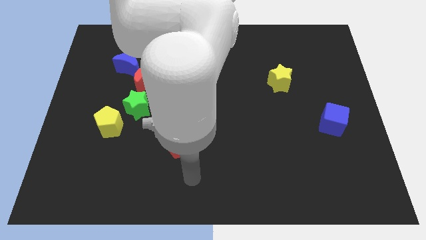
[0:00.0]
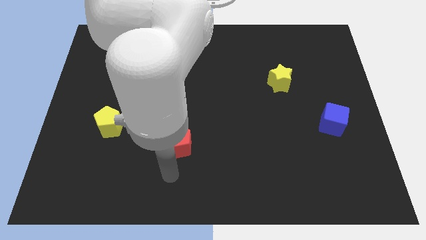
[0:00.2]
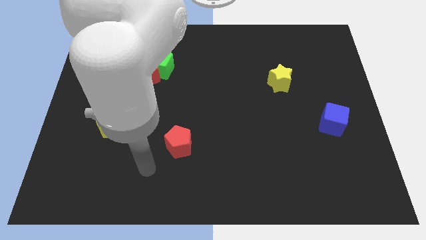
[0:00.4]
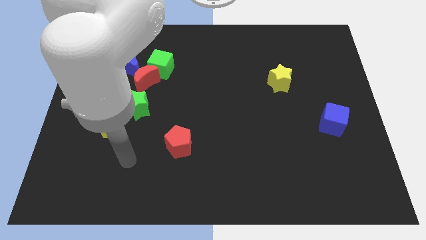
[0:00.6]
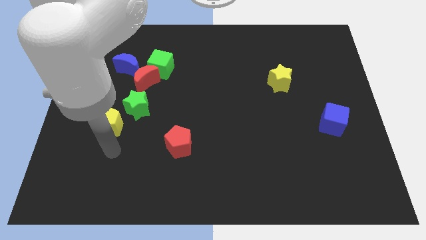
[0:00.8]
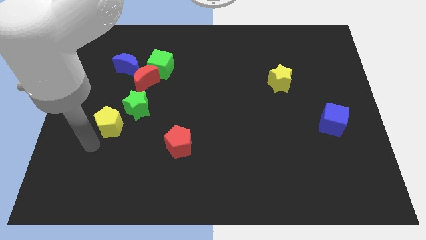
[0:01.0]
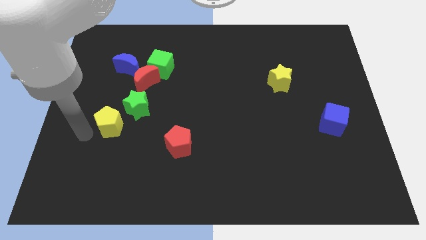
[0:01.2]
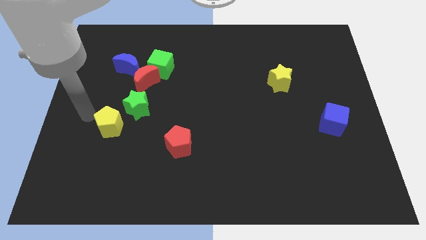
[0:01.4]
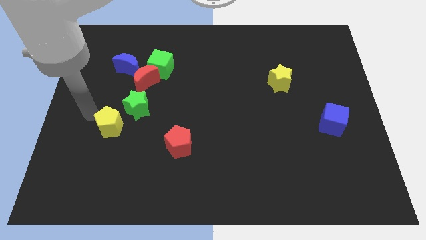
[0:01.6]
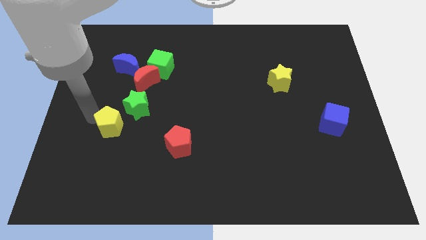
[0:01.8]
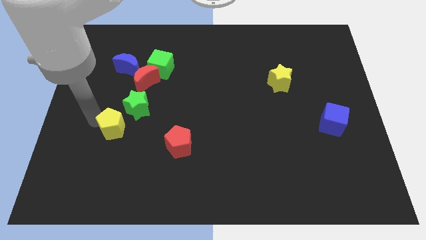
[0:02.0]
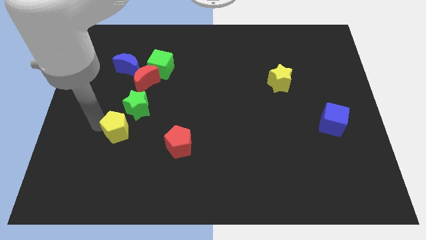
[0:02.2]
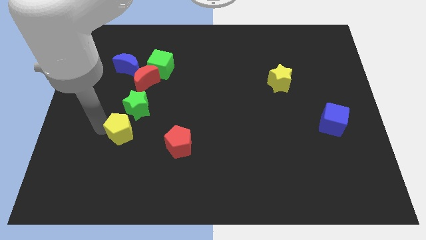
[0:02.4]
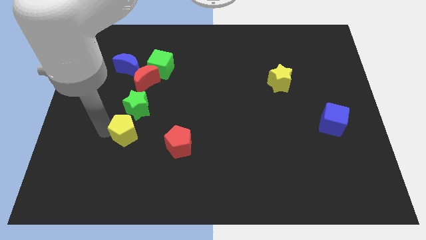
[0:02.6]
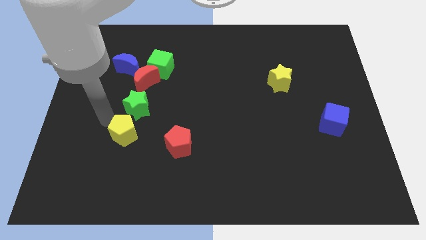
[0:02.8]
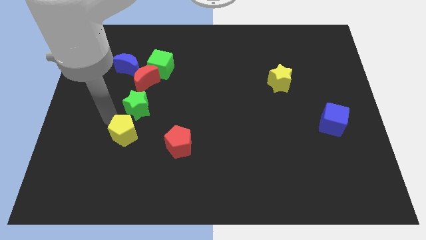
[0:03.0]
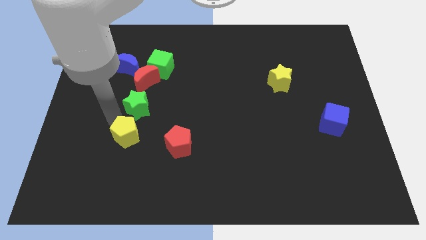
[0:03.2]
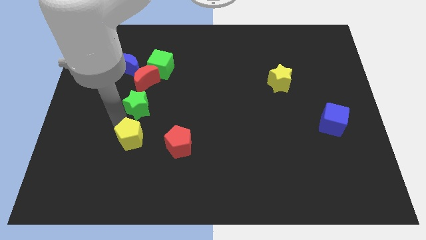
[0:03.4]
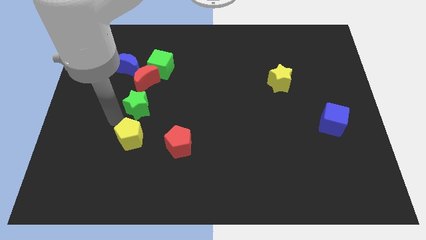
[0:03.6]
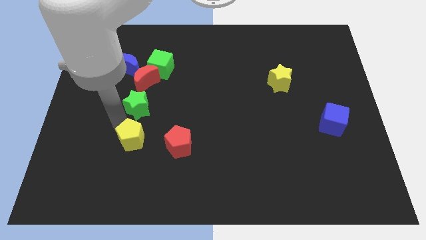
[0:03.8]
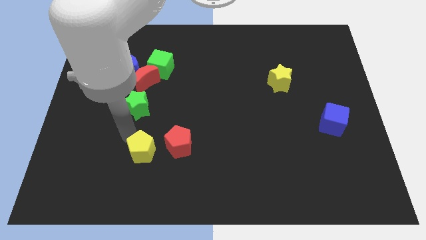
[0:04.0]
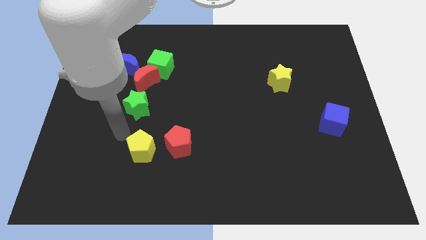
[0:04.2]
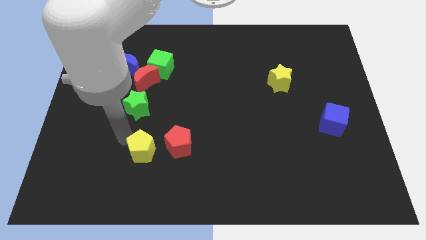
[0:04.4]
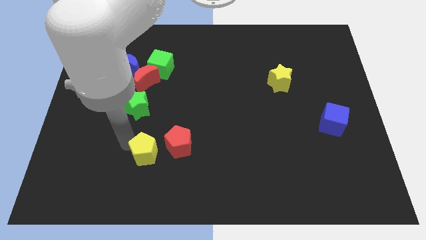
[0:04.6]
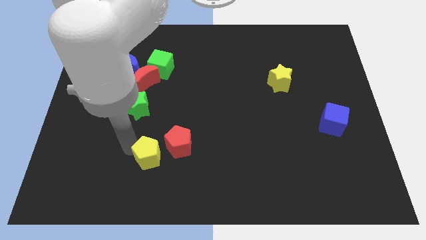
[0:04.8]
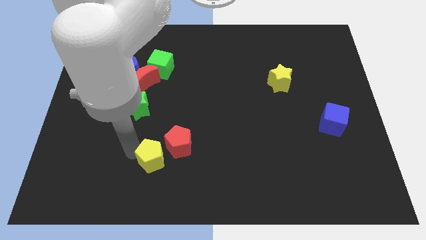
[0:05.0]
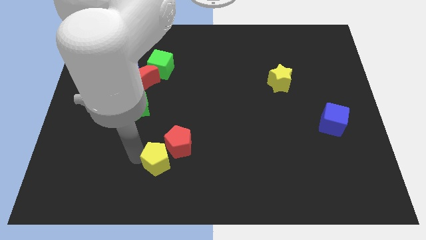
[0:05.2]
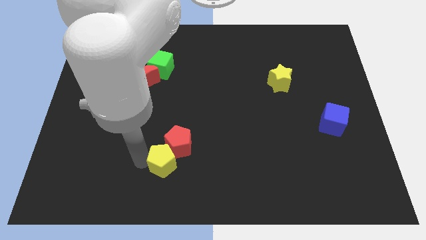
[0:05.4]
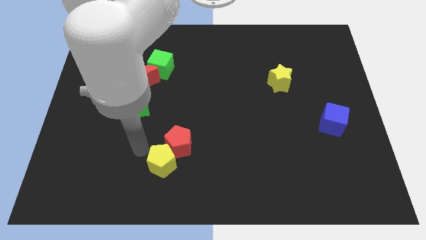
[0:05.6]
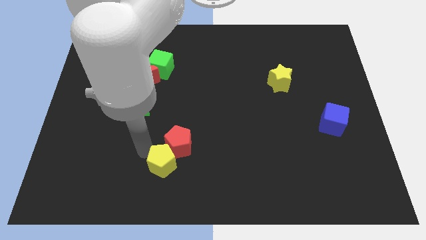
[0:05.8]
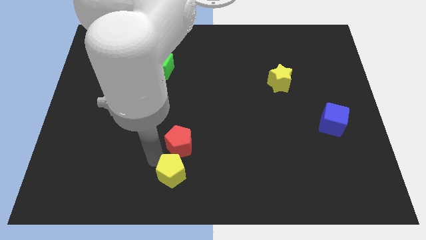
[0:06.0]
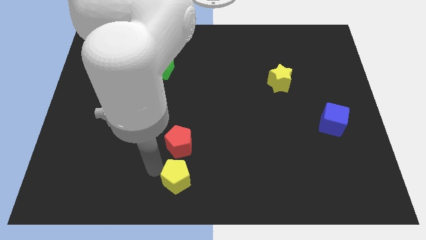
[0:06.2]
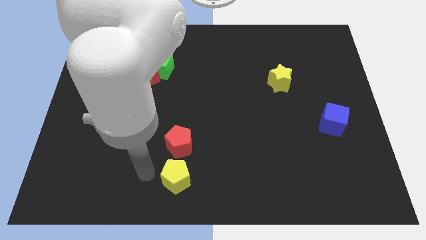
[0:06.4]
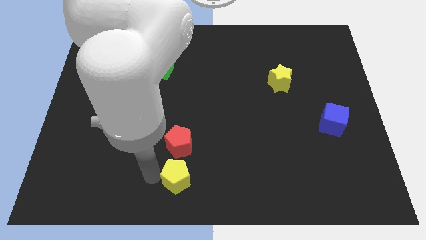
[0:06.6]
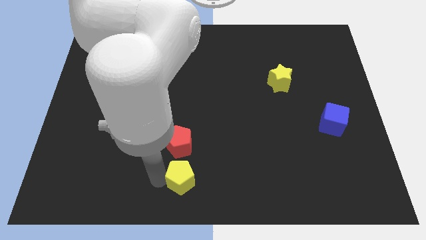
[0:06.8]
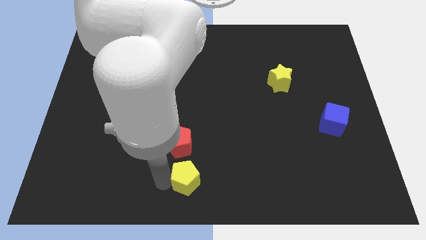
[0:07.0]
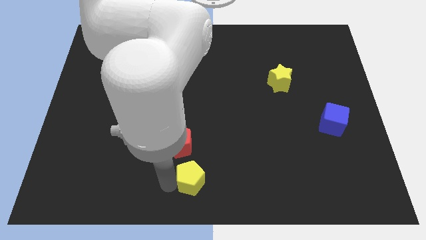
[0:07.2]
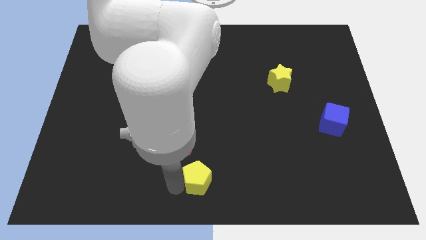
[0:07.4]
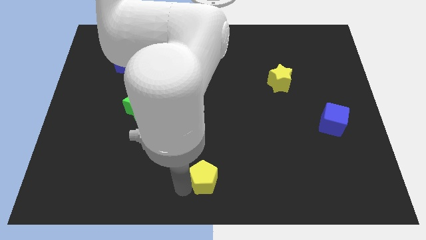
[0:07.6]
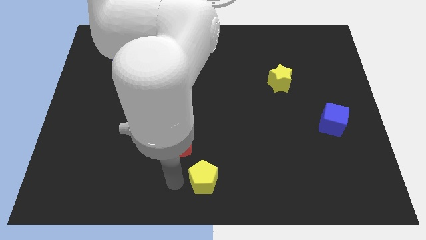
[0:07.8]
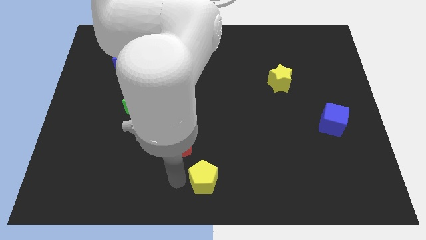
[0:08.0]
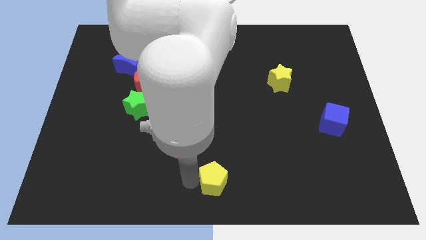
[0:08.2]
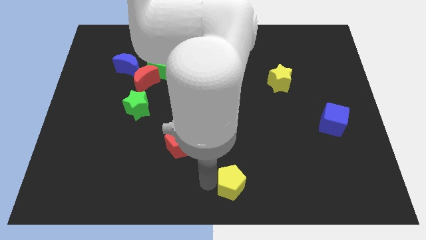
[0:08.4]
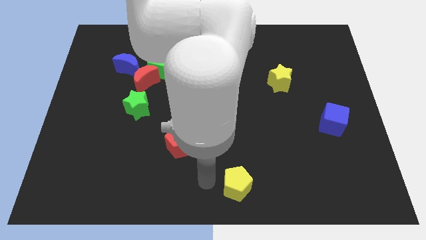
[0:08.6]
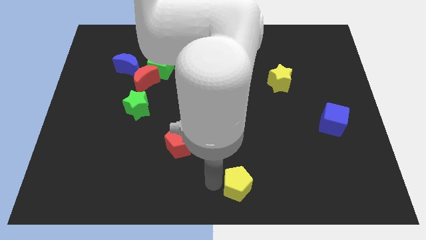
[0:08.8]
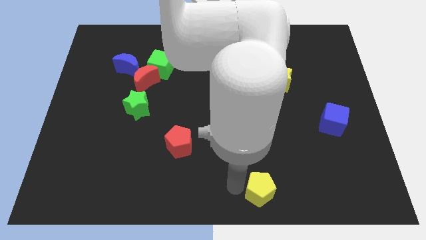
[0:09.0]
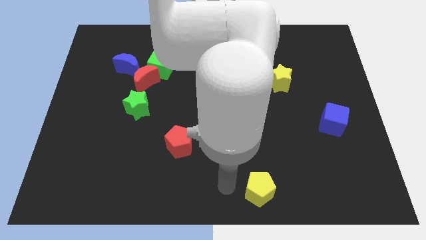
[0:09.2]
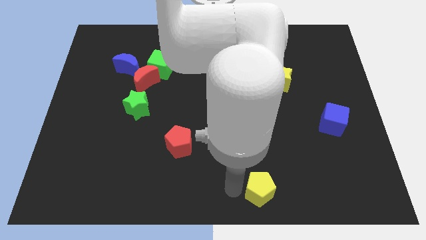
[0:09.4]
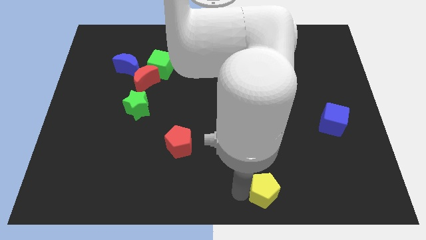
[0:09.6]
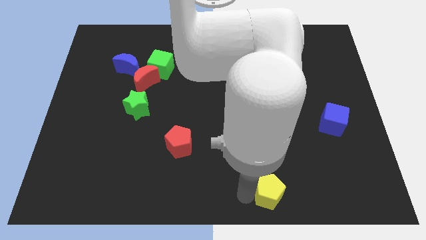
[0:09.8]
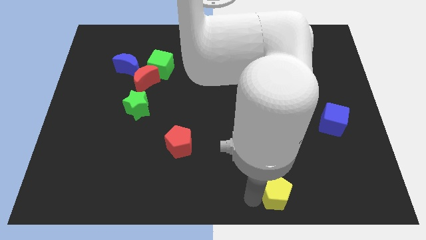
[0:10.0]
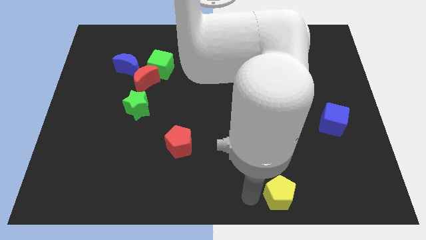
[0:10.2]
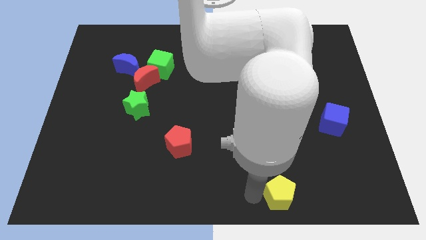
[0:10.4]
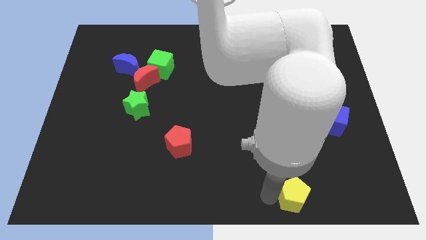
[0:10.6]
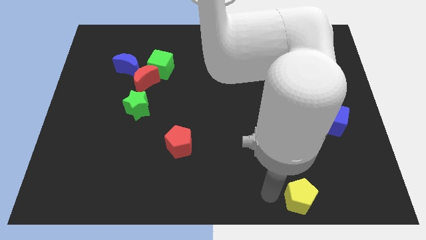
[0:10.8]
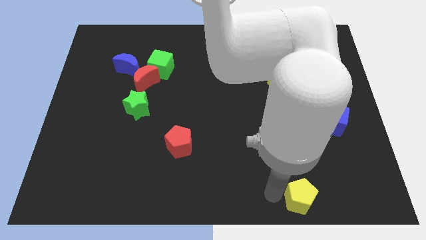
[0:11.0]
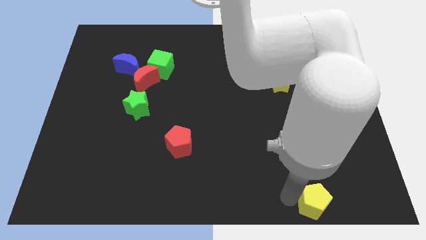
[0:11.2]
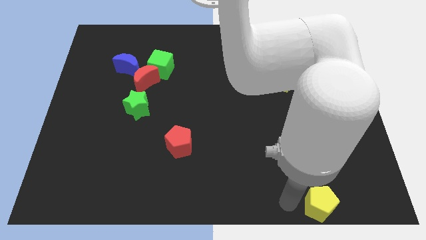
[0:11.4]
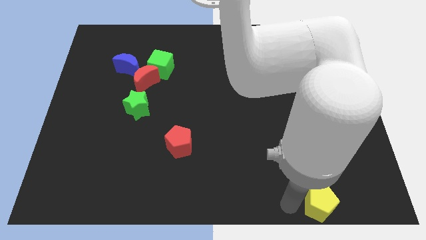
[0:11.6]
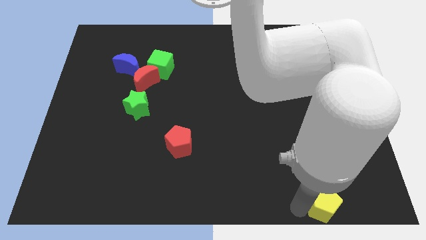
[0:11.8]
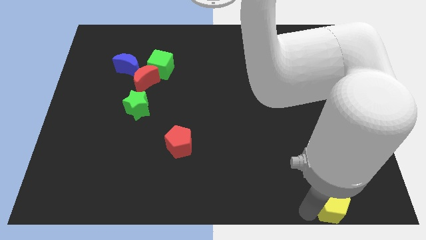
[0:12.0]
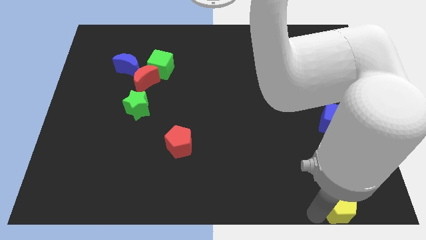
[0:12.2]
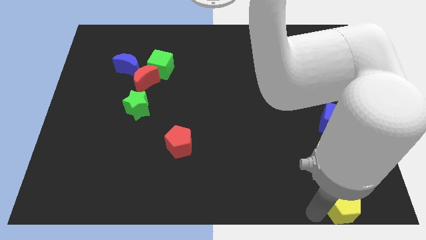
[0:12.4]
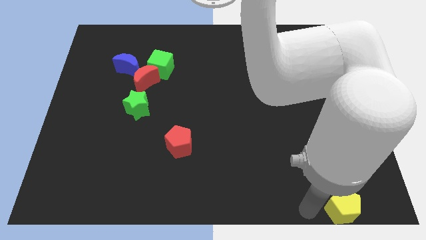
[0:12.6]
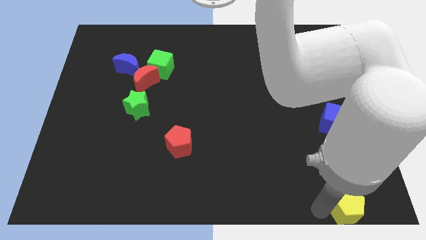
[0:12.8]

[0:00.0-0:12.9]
push the yellow pentagon to the lower right corner
